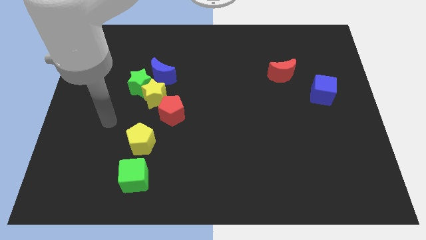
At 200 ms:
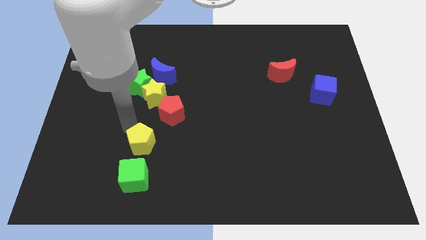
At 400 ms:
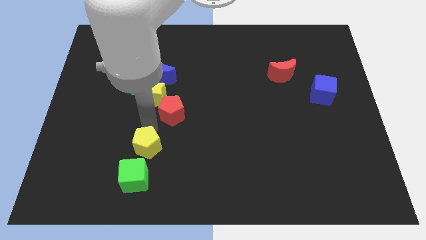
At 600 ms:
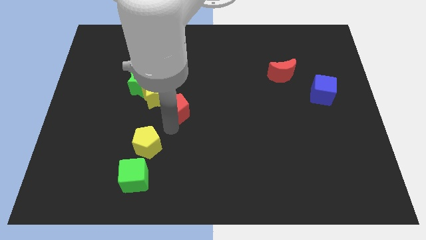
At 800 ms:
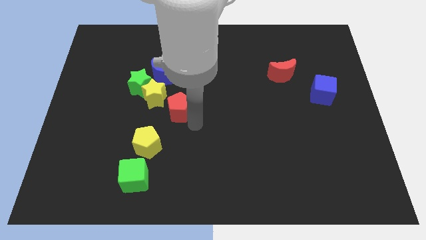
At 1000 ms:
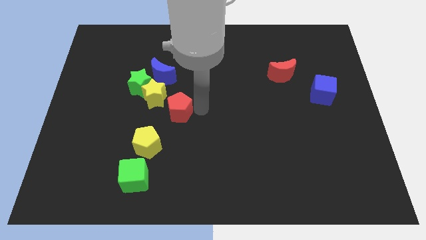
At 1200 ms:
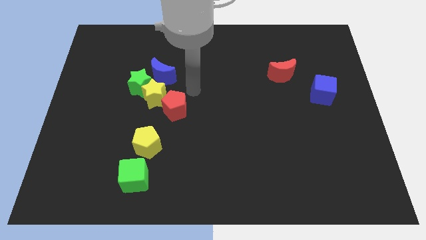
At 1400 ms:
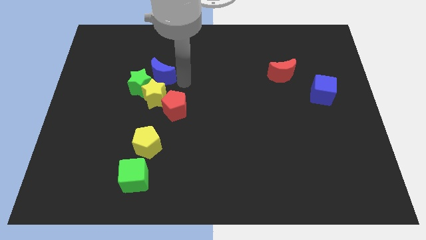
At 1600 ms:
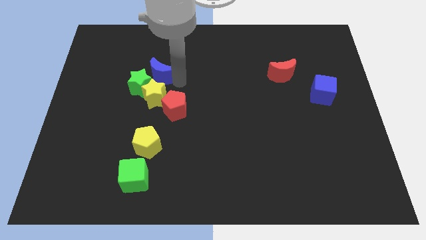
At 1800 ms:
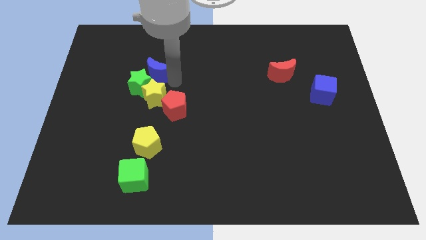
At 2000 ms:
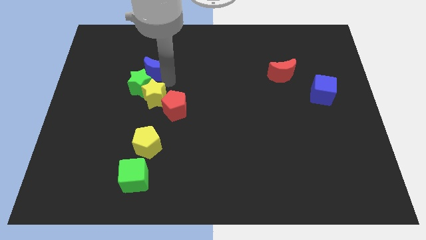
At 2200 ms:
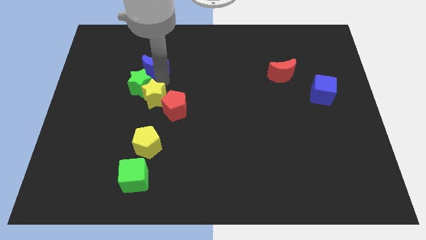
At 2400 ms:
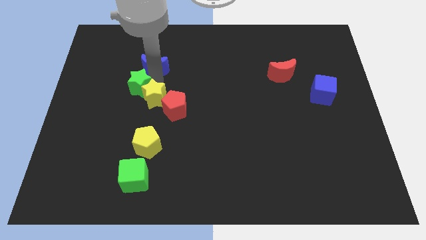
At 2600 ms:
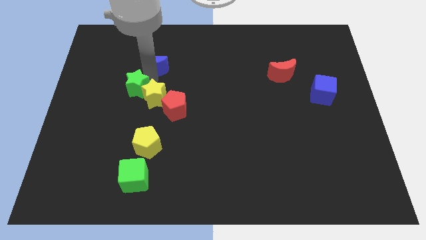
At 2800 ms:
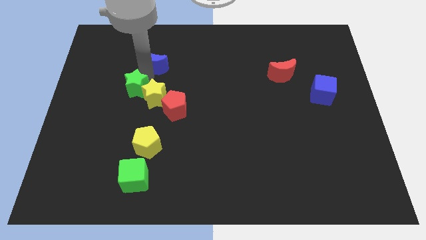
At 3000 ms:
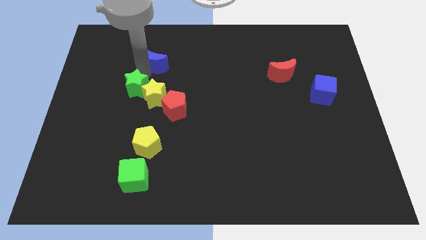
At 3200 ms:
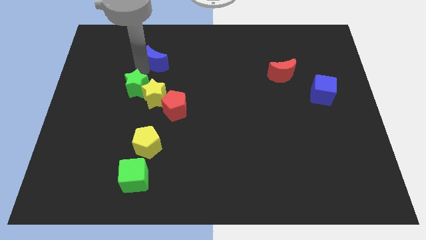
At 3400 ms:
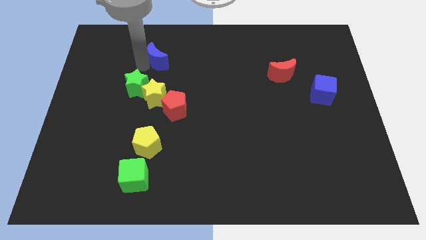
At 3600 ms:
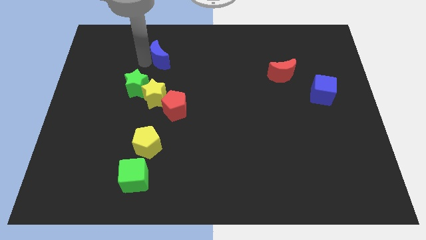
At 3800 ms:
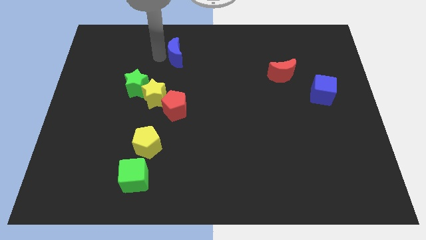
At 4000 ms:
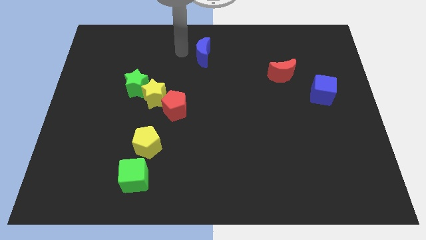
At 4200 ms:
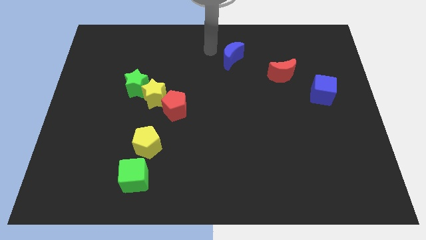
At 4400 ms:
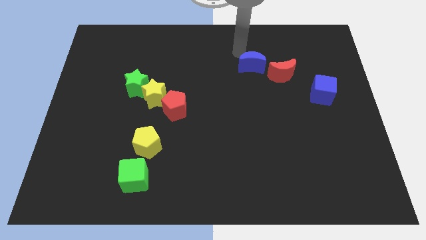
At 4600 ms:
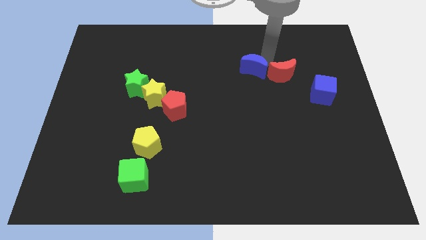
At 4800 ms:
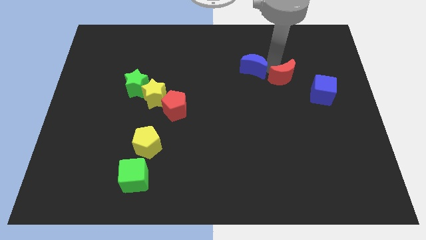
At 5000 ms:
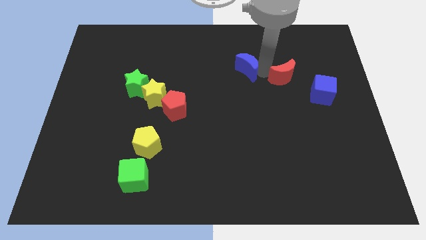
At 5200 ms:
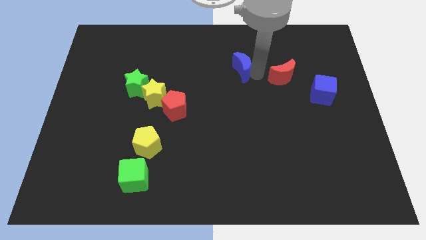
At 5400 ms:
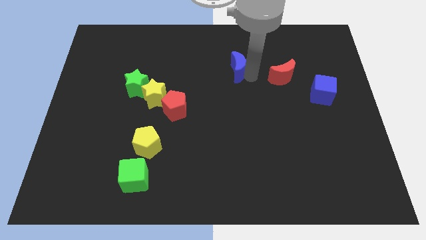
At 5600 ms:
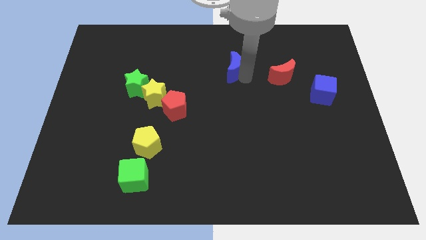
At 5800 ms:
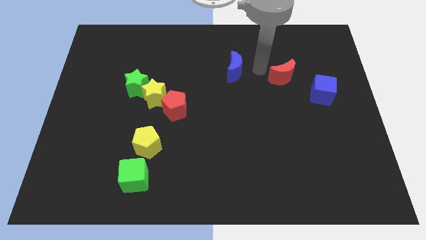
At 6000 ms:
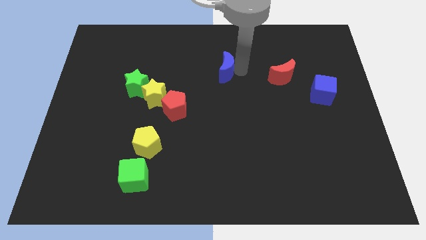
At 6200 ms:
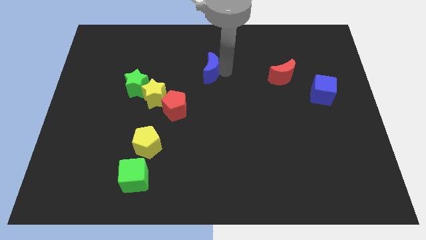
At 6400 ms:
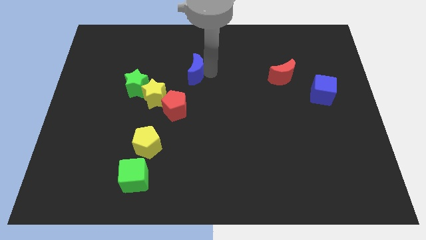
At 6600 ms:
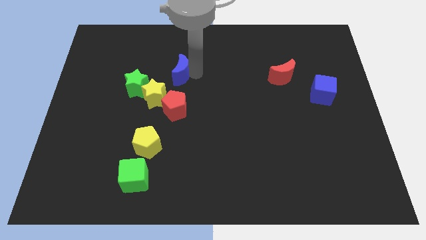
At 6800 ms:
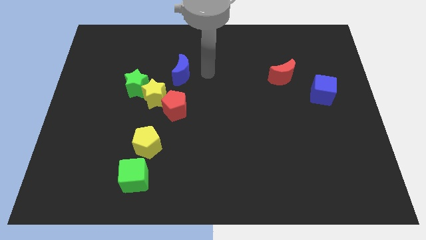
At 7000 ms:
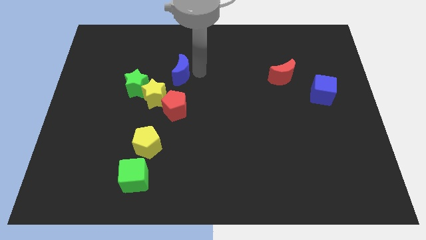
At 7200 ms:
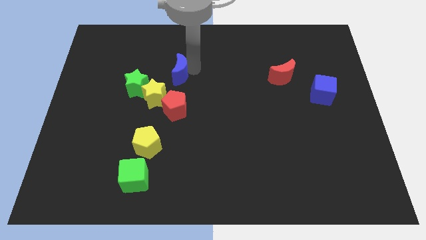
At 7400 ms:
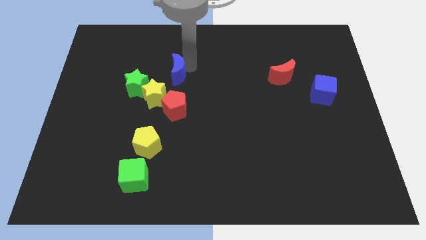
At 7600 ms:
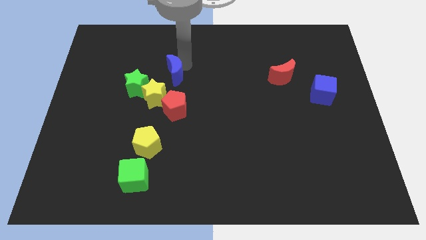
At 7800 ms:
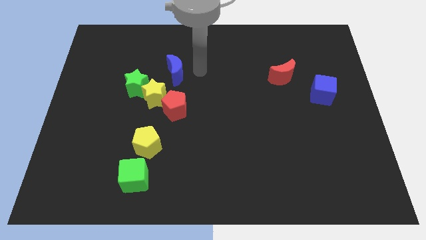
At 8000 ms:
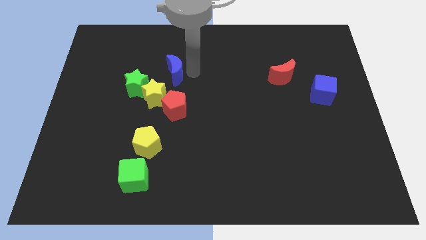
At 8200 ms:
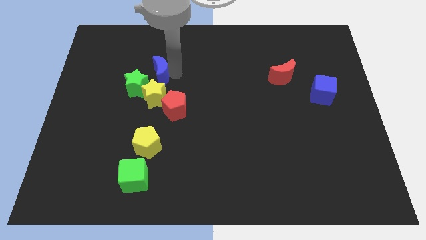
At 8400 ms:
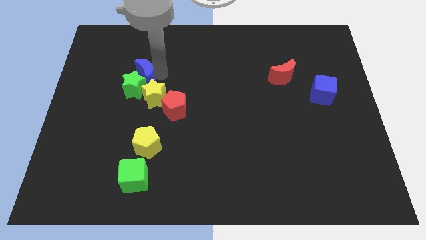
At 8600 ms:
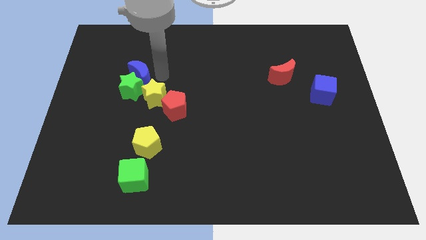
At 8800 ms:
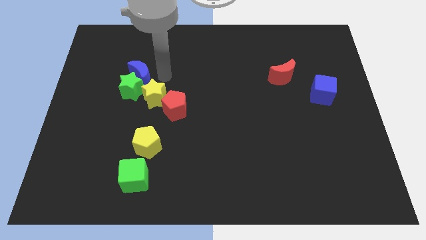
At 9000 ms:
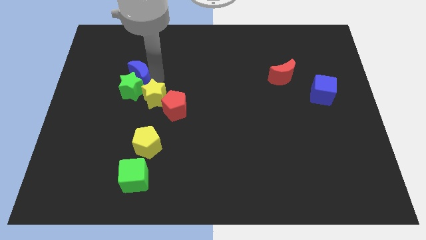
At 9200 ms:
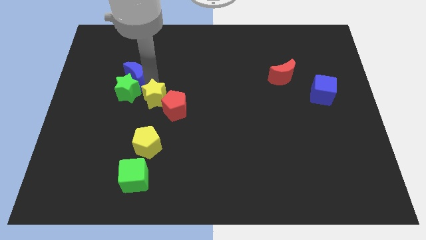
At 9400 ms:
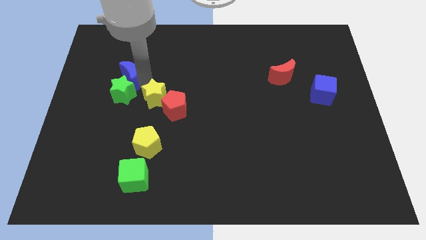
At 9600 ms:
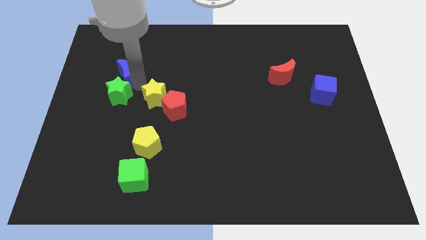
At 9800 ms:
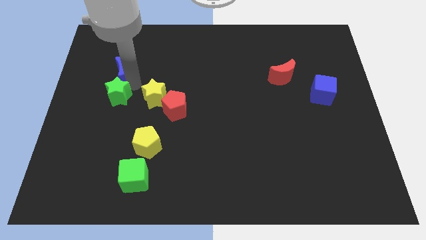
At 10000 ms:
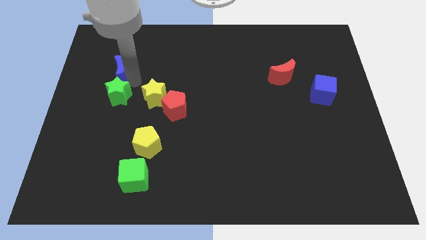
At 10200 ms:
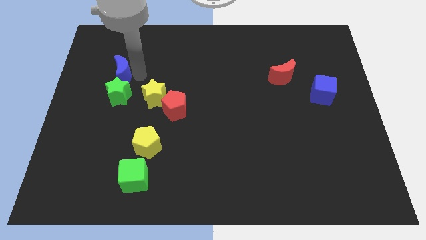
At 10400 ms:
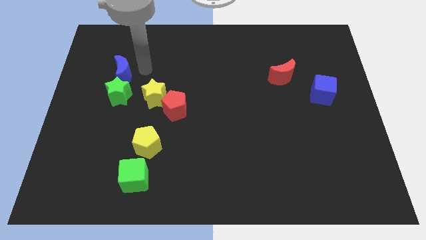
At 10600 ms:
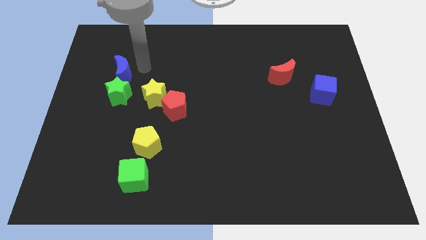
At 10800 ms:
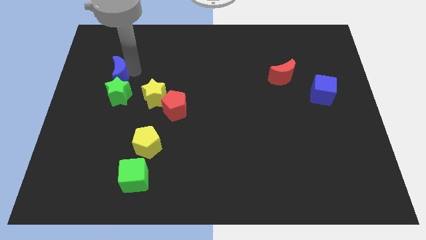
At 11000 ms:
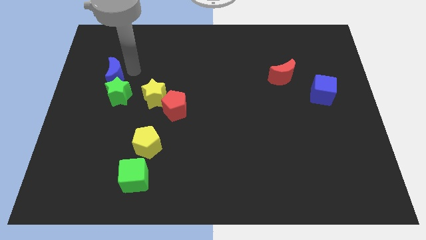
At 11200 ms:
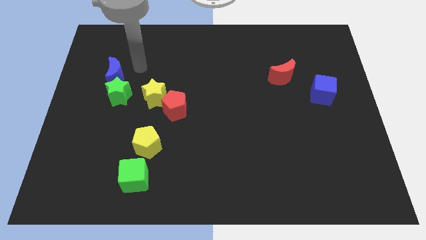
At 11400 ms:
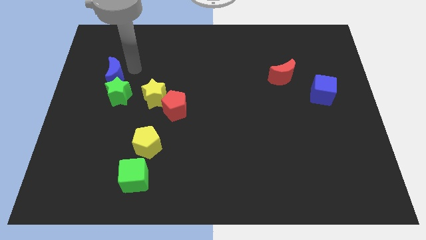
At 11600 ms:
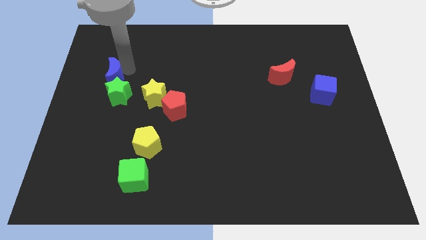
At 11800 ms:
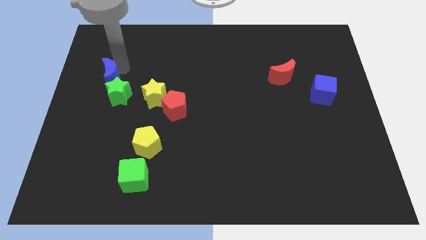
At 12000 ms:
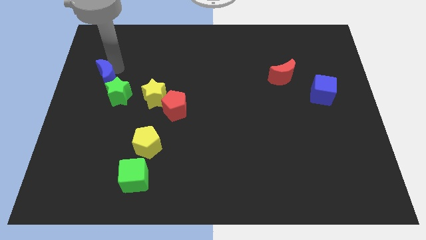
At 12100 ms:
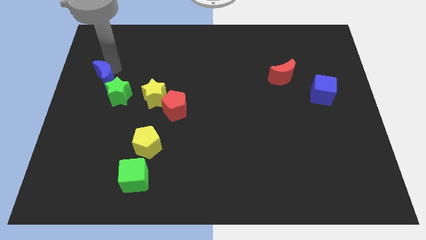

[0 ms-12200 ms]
put the blue moon to the left side of the board

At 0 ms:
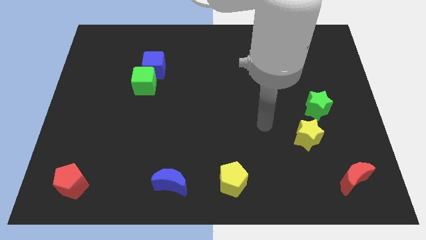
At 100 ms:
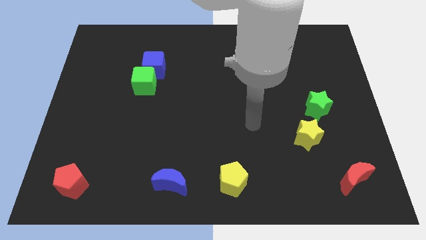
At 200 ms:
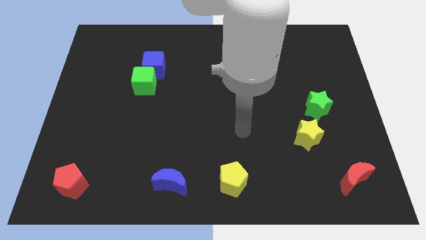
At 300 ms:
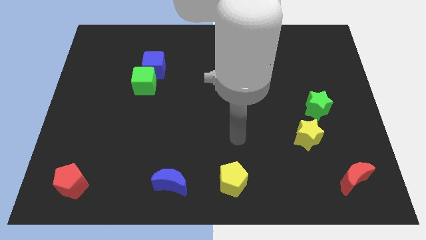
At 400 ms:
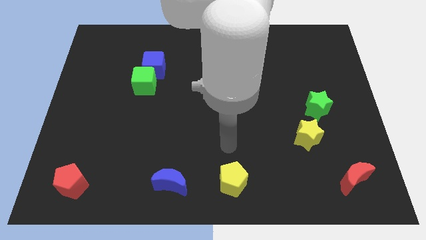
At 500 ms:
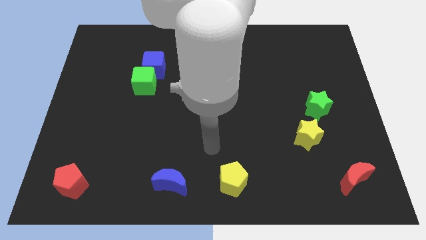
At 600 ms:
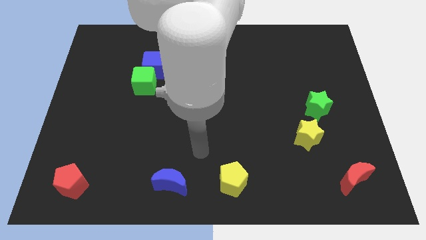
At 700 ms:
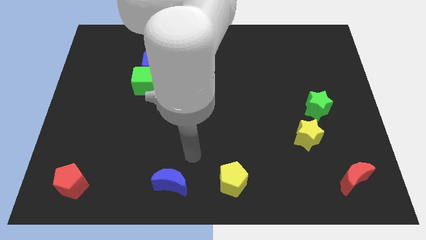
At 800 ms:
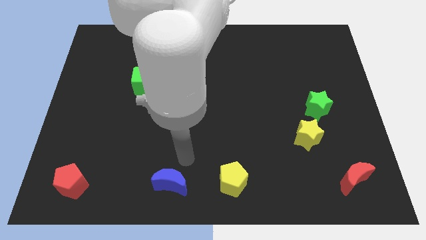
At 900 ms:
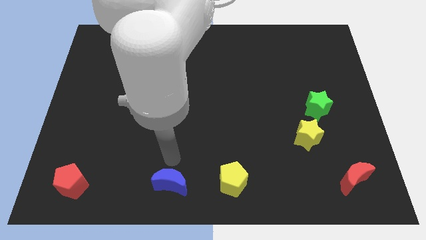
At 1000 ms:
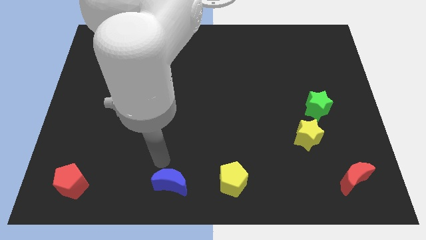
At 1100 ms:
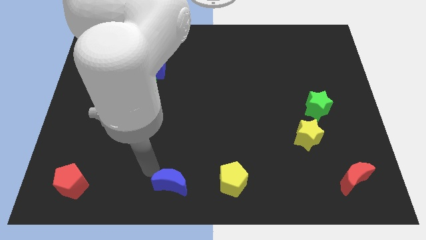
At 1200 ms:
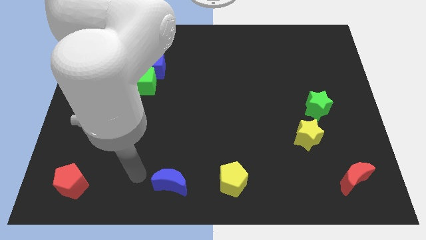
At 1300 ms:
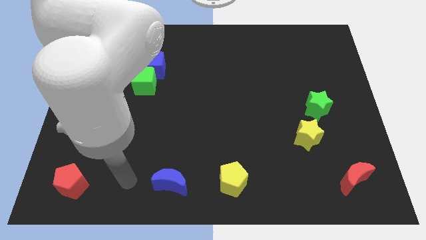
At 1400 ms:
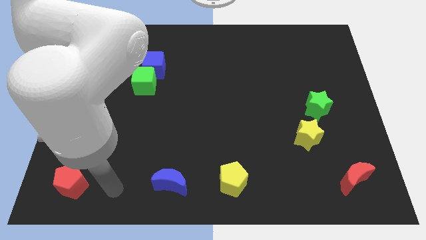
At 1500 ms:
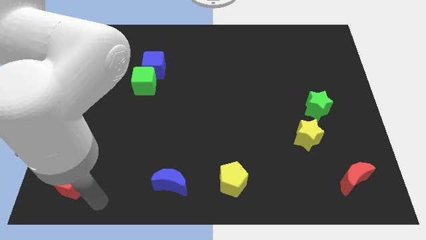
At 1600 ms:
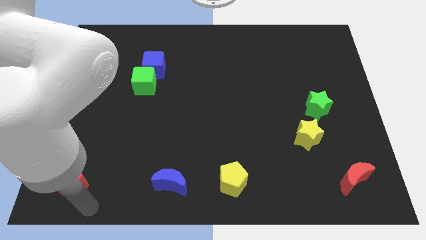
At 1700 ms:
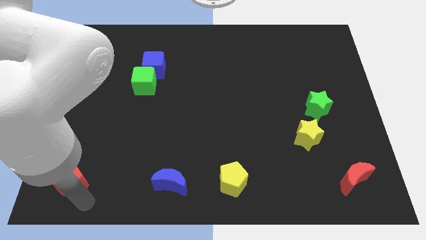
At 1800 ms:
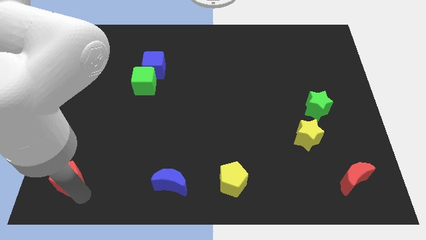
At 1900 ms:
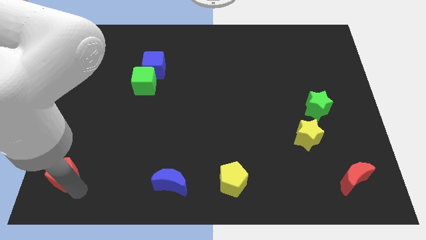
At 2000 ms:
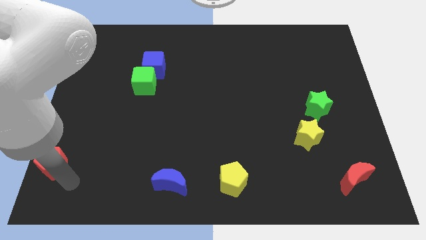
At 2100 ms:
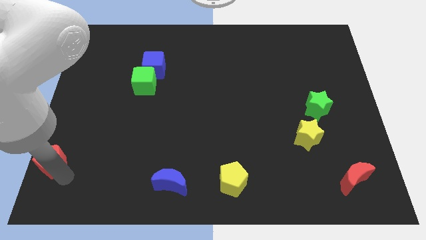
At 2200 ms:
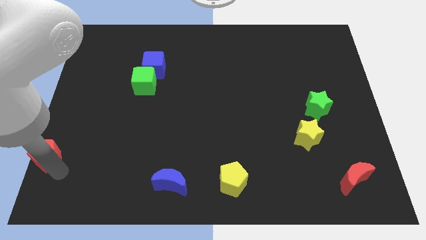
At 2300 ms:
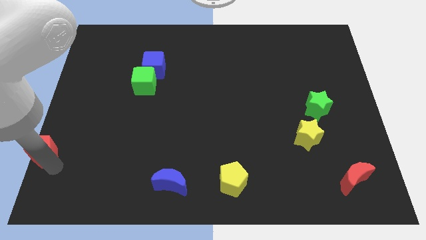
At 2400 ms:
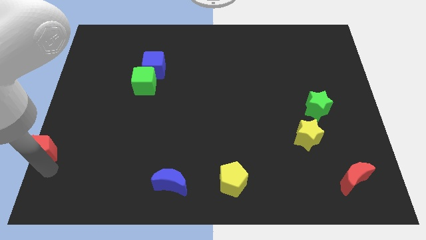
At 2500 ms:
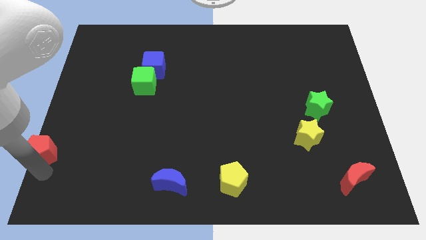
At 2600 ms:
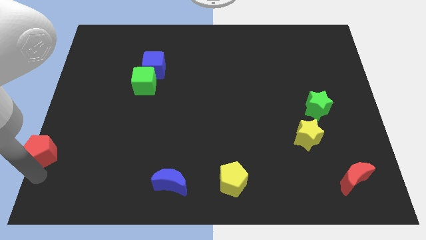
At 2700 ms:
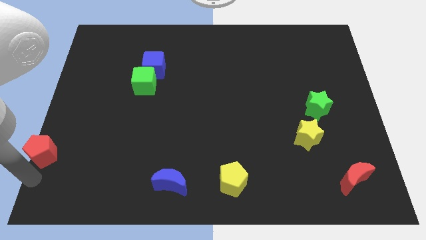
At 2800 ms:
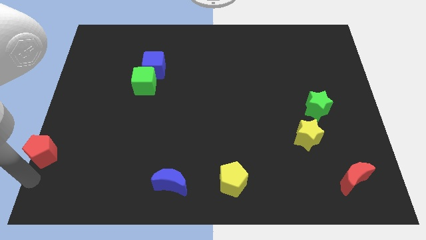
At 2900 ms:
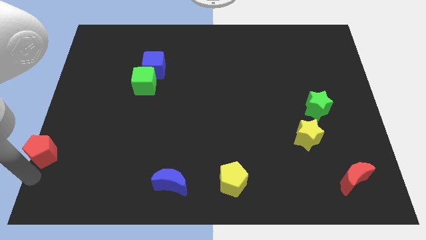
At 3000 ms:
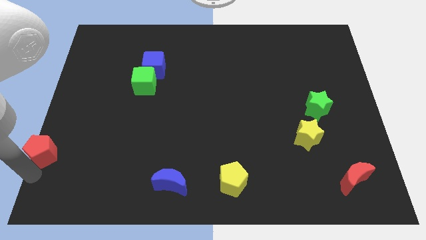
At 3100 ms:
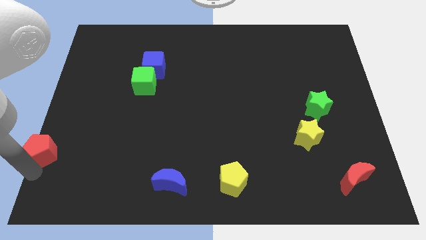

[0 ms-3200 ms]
move the red pentagon to the center left
